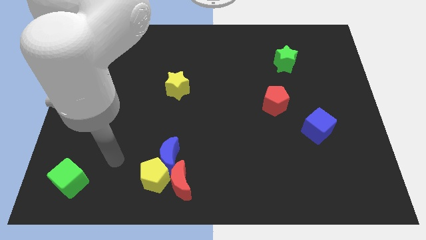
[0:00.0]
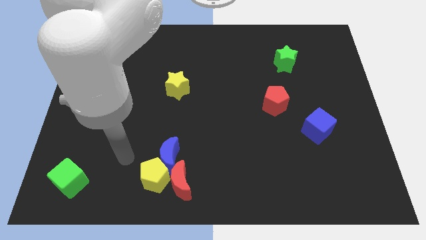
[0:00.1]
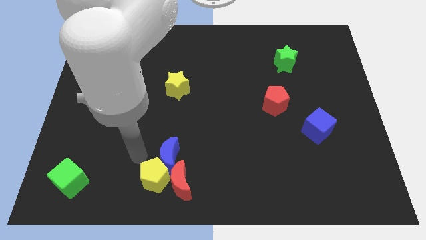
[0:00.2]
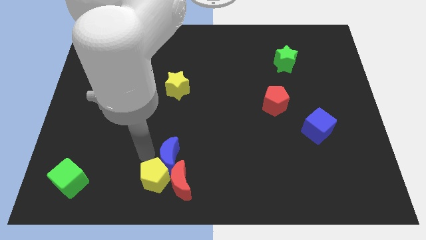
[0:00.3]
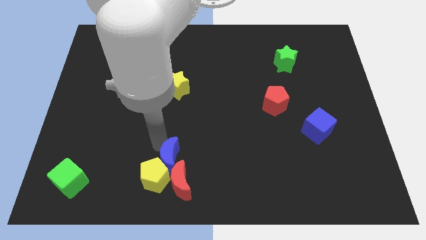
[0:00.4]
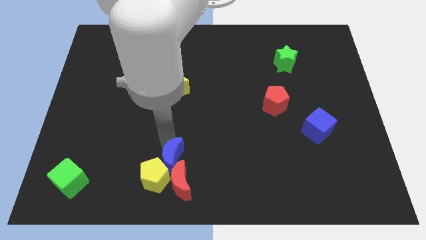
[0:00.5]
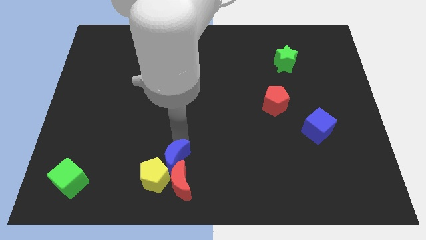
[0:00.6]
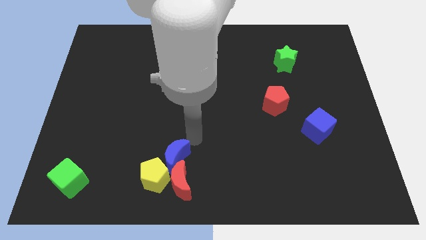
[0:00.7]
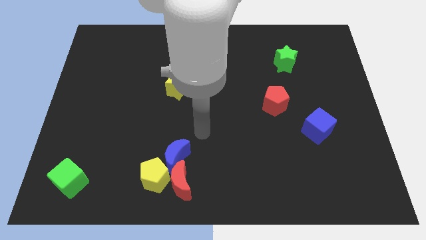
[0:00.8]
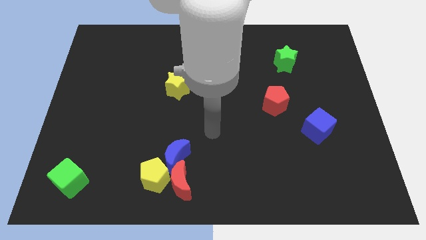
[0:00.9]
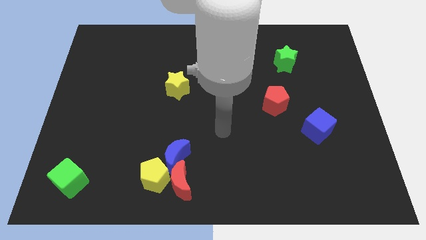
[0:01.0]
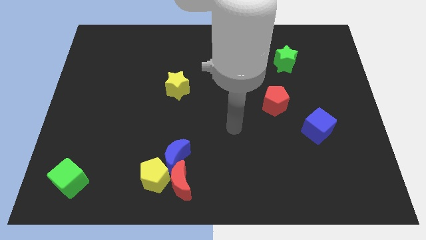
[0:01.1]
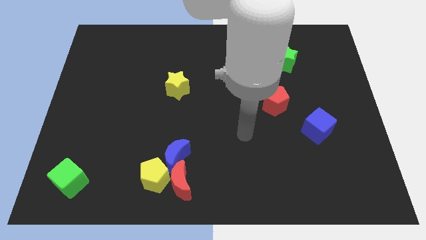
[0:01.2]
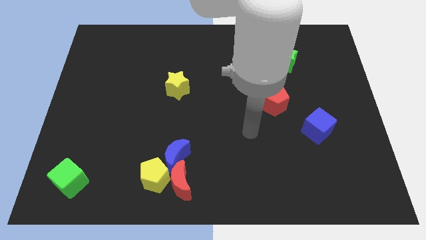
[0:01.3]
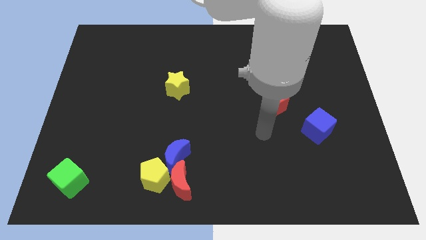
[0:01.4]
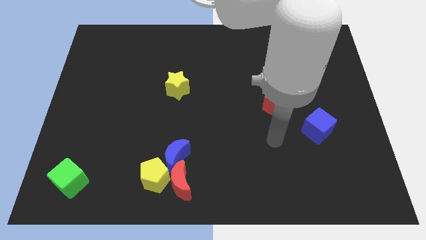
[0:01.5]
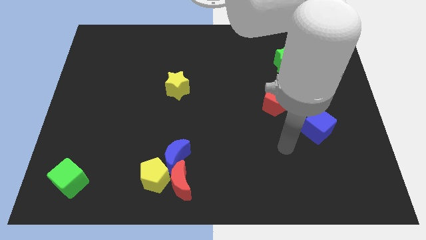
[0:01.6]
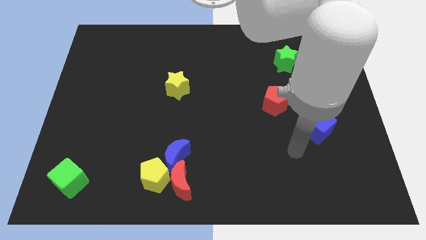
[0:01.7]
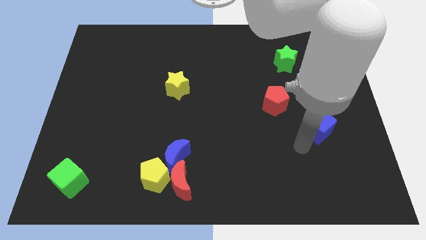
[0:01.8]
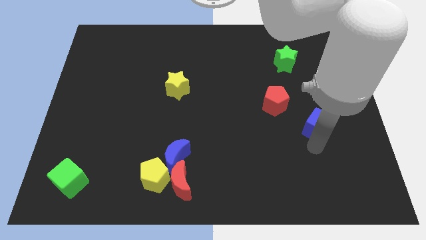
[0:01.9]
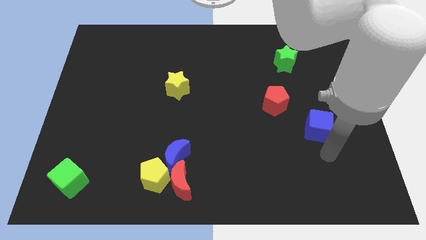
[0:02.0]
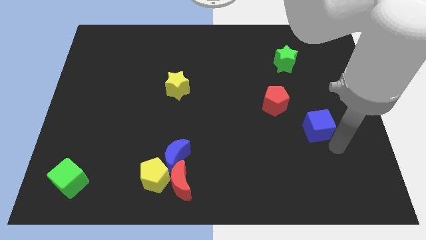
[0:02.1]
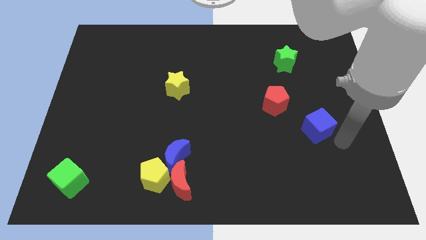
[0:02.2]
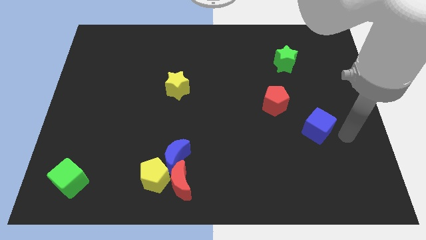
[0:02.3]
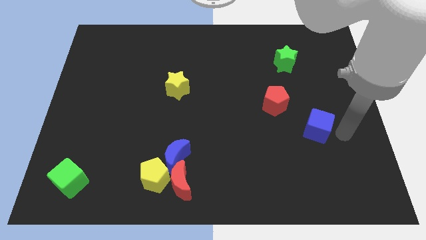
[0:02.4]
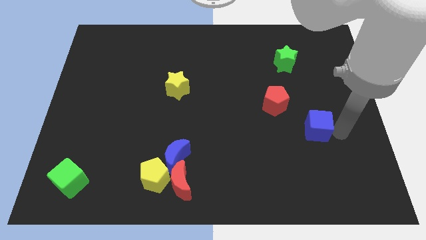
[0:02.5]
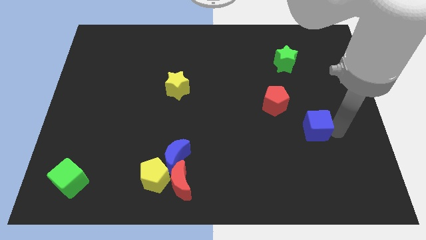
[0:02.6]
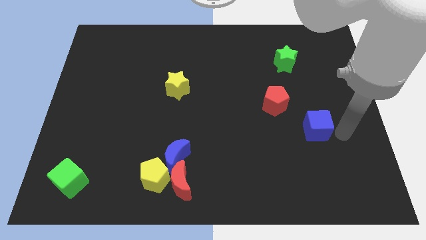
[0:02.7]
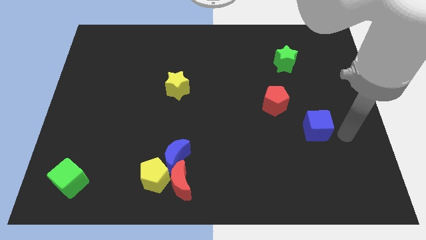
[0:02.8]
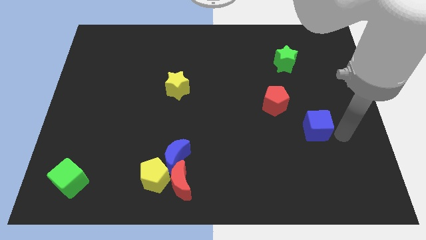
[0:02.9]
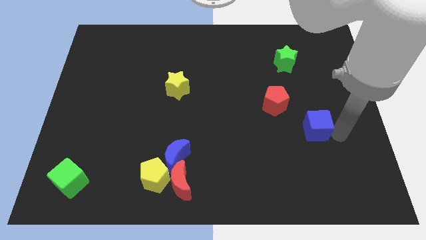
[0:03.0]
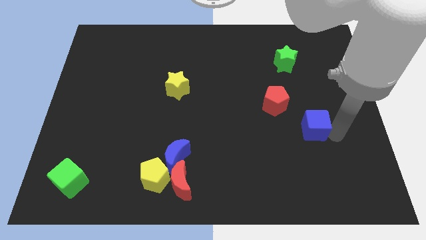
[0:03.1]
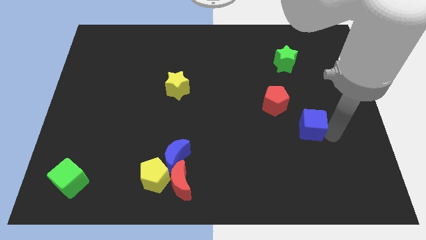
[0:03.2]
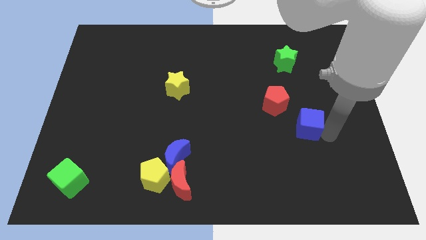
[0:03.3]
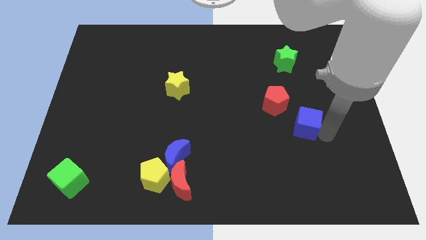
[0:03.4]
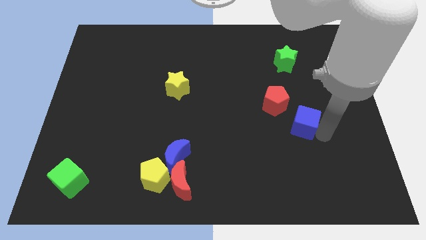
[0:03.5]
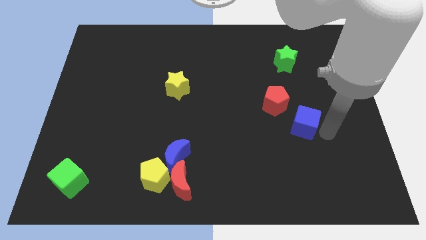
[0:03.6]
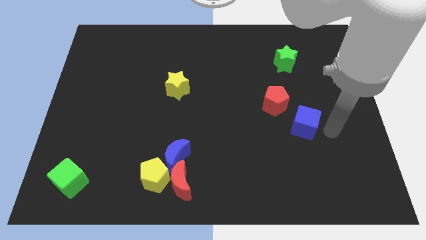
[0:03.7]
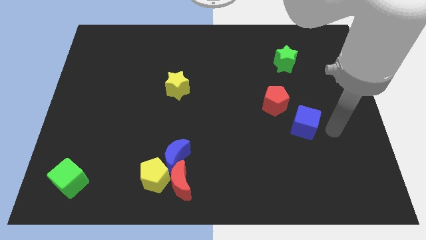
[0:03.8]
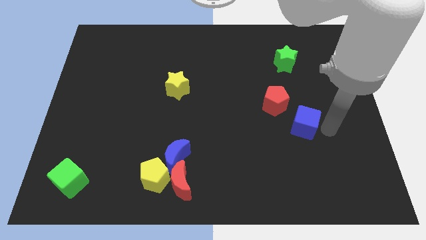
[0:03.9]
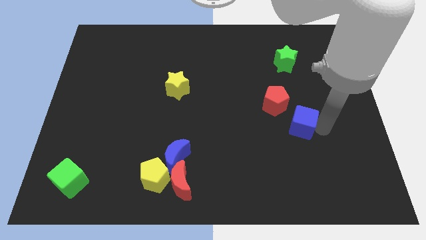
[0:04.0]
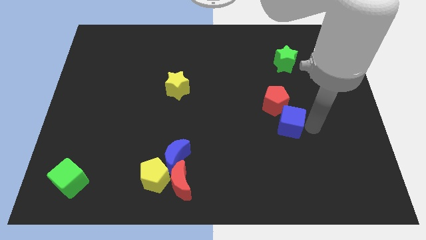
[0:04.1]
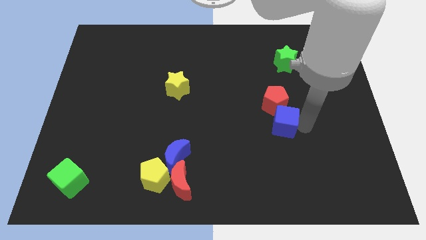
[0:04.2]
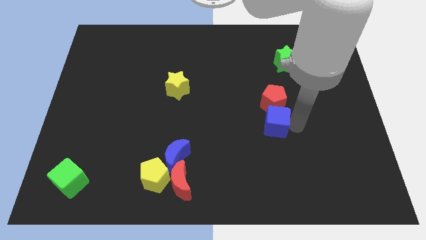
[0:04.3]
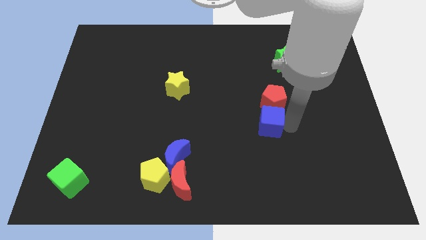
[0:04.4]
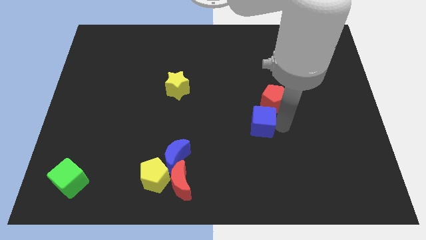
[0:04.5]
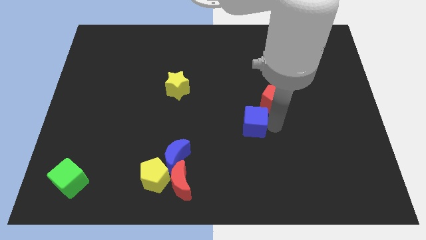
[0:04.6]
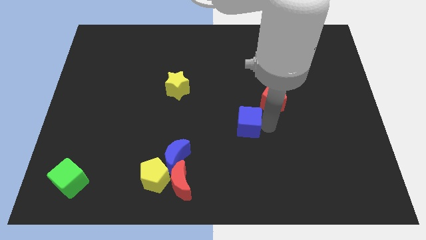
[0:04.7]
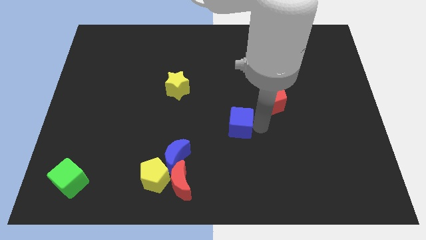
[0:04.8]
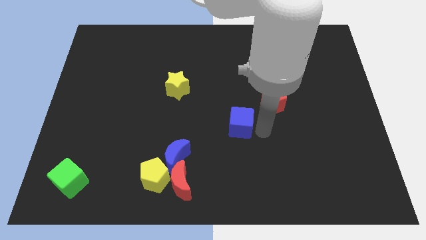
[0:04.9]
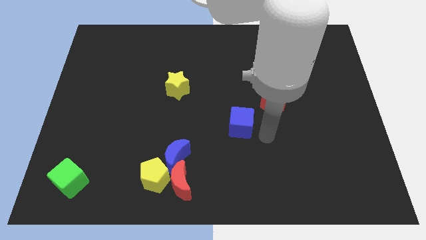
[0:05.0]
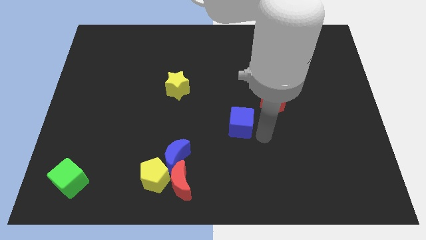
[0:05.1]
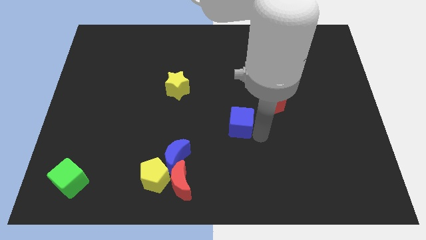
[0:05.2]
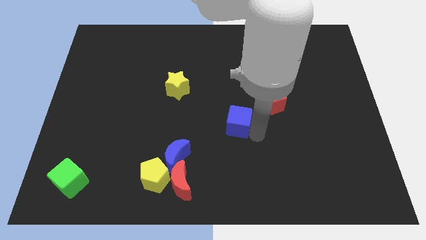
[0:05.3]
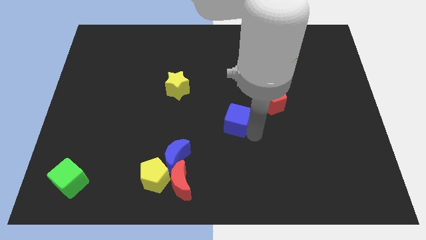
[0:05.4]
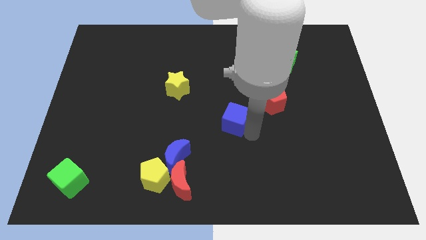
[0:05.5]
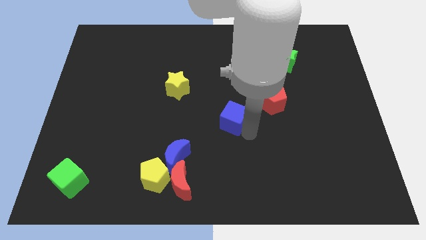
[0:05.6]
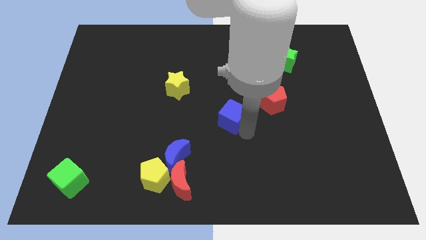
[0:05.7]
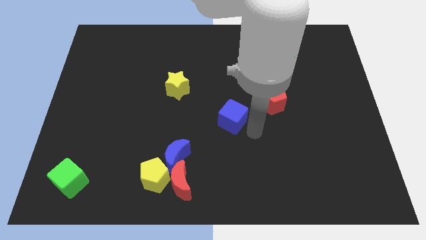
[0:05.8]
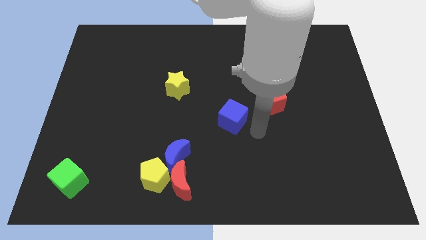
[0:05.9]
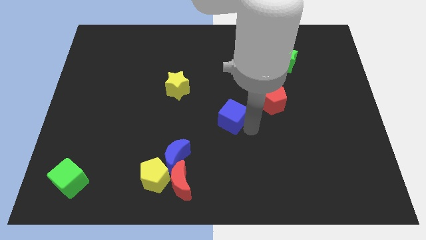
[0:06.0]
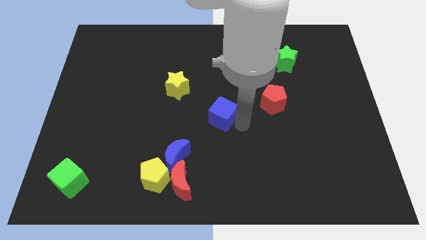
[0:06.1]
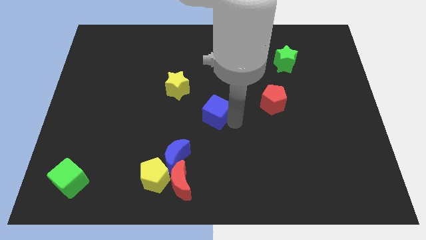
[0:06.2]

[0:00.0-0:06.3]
slide the blue cube to the bottom right side of the yellow star

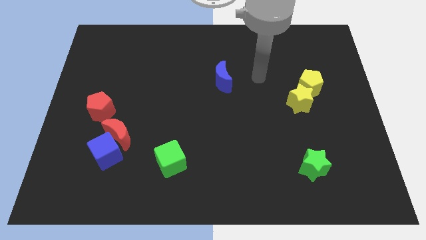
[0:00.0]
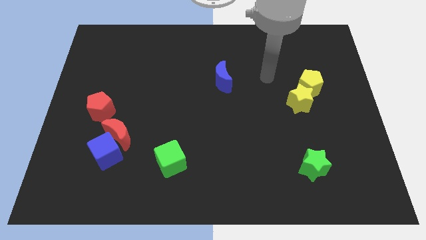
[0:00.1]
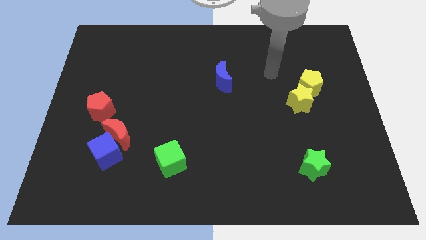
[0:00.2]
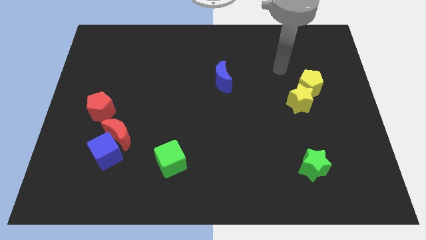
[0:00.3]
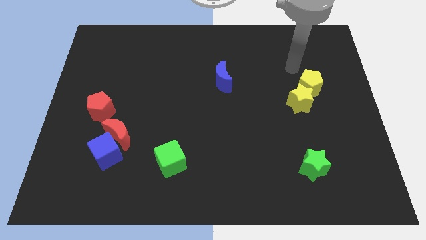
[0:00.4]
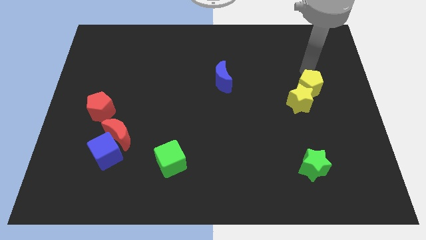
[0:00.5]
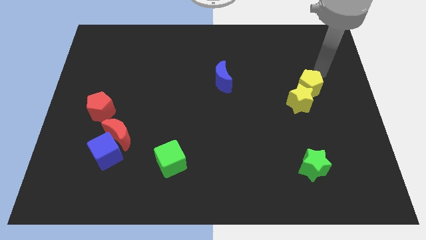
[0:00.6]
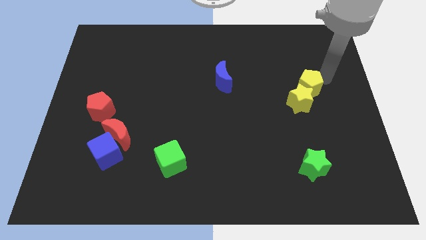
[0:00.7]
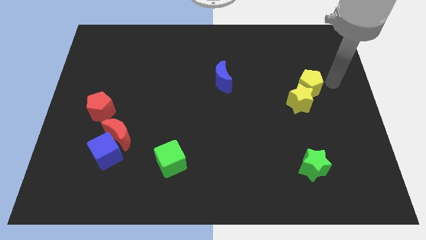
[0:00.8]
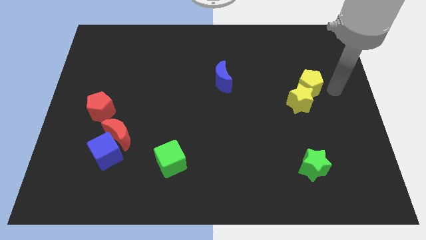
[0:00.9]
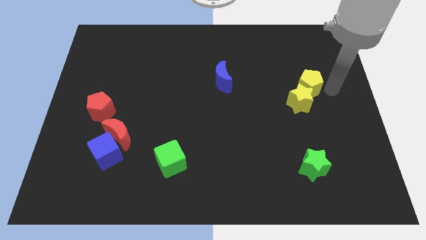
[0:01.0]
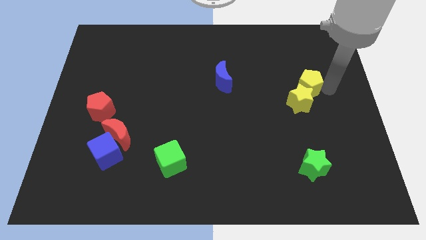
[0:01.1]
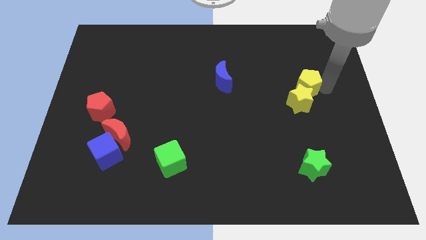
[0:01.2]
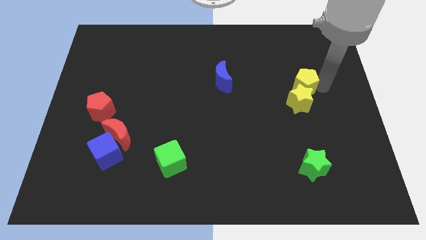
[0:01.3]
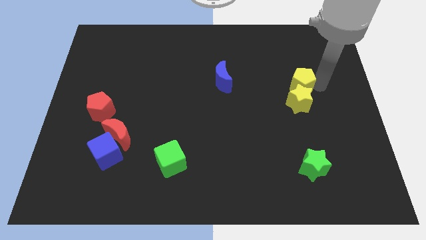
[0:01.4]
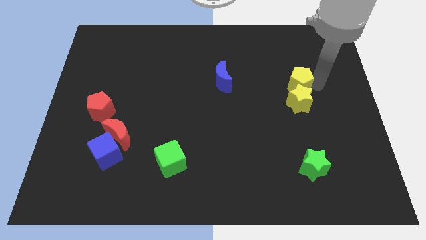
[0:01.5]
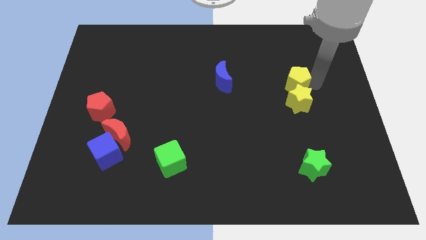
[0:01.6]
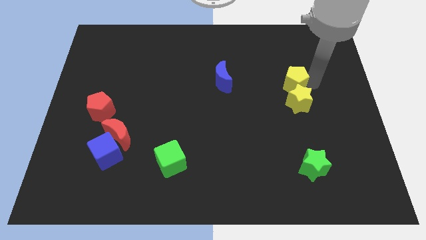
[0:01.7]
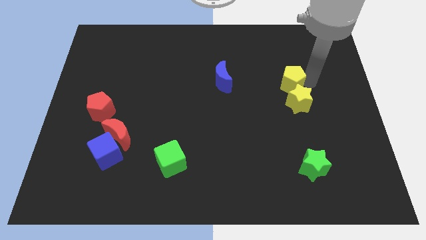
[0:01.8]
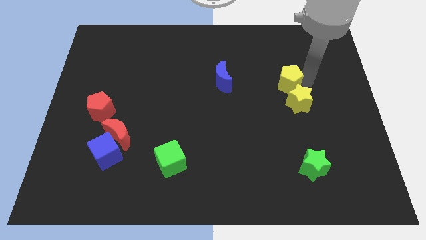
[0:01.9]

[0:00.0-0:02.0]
put the yellow pentagon just right of the blue moon
